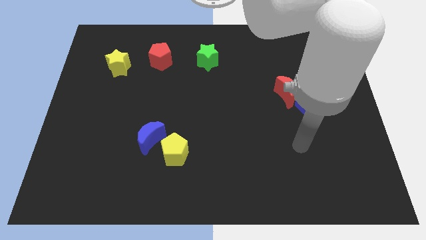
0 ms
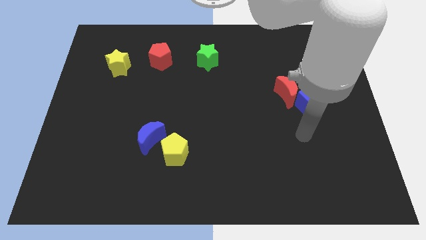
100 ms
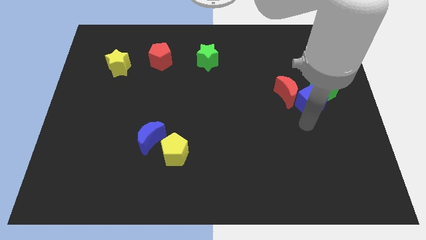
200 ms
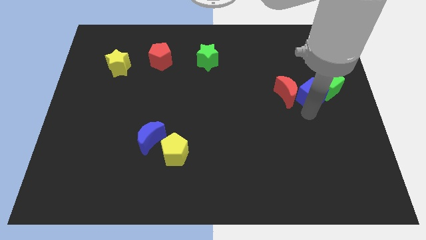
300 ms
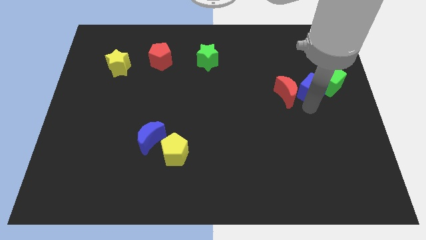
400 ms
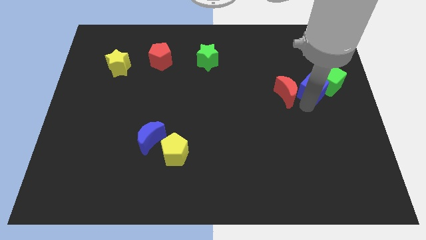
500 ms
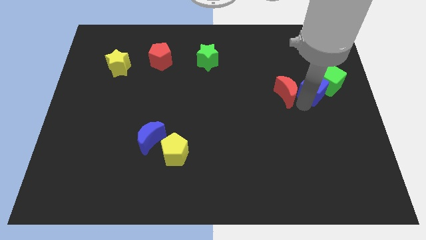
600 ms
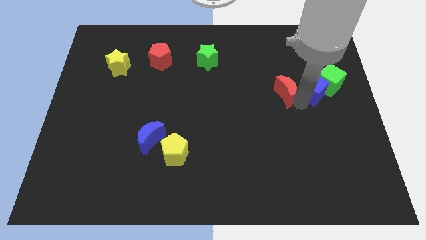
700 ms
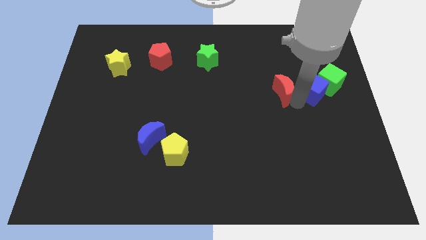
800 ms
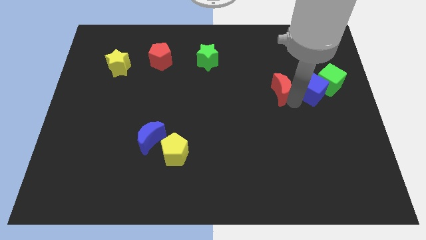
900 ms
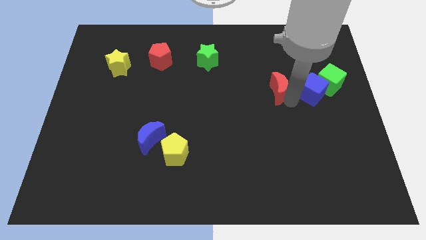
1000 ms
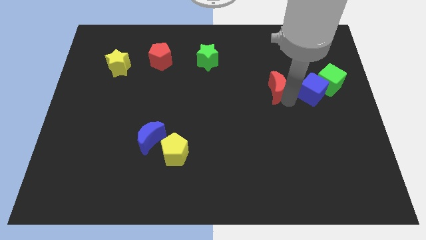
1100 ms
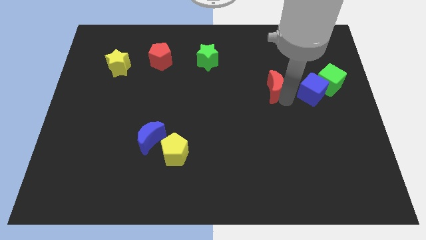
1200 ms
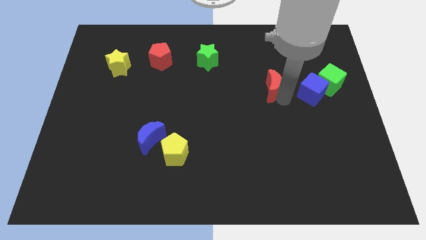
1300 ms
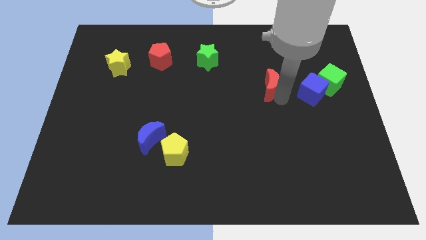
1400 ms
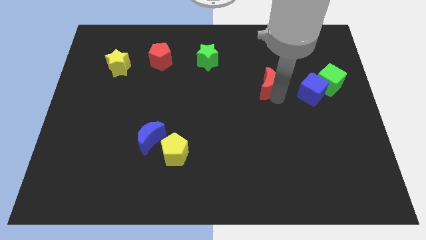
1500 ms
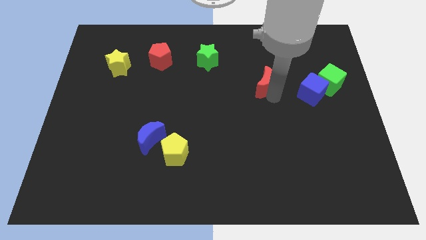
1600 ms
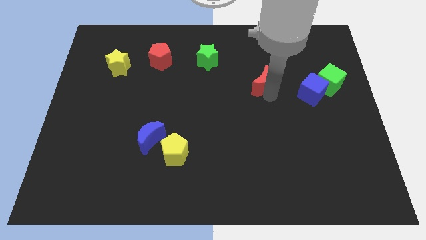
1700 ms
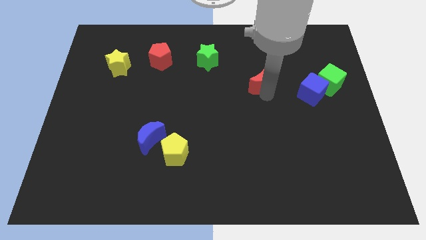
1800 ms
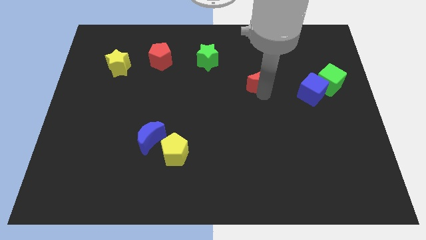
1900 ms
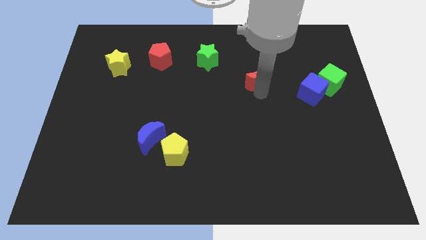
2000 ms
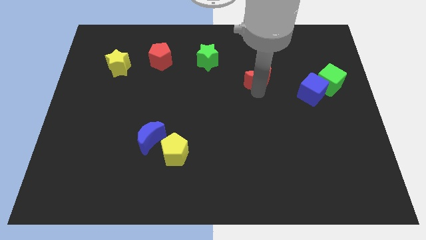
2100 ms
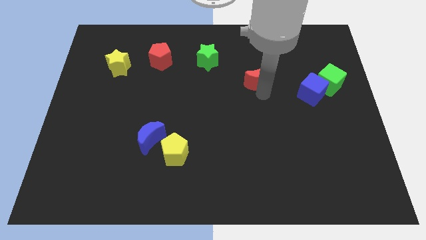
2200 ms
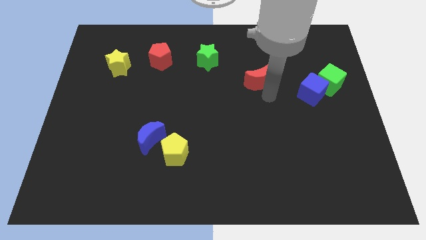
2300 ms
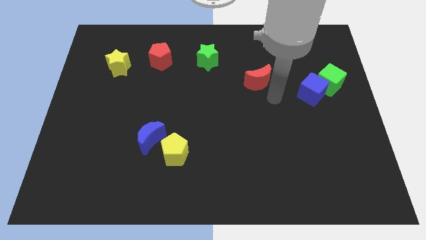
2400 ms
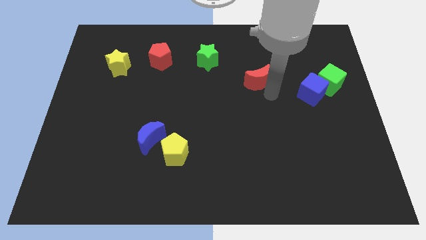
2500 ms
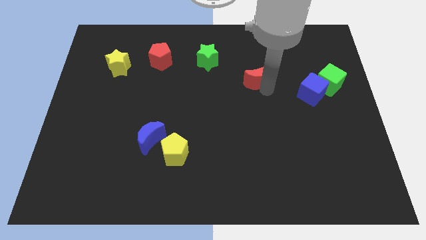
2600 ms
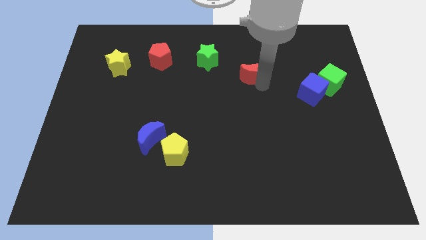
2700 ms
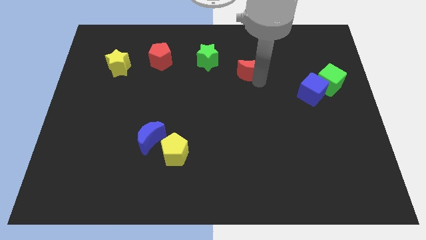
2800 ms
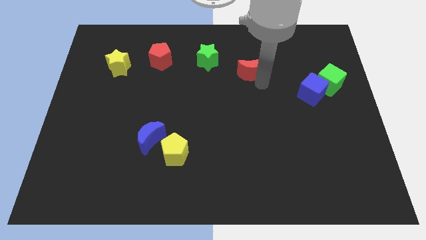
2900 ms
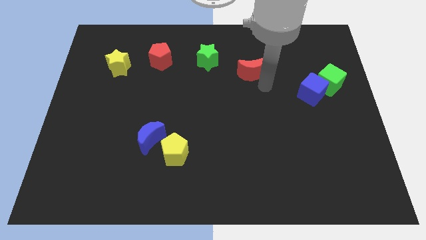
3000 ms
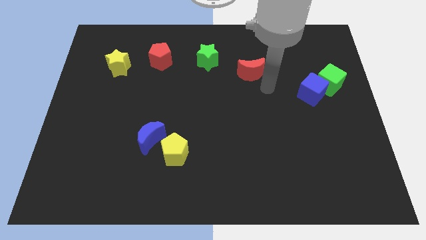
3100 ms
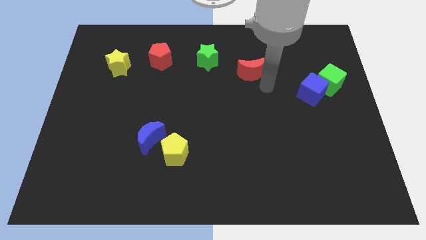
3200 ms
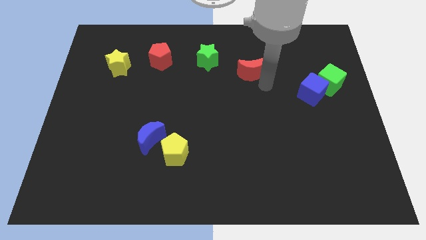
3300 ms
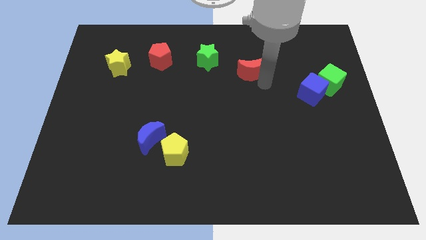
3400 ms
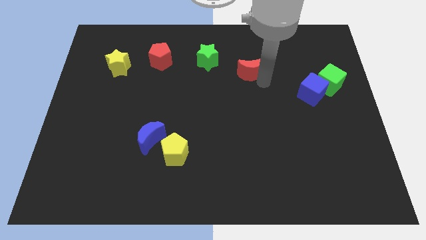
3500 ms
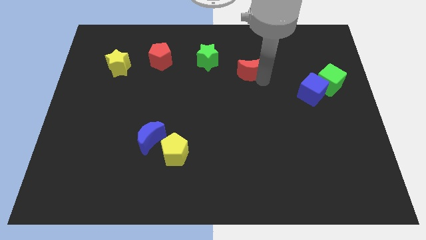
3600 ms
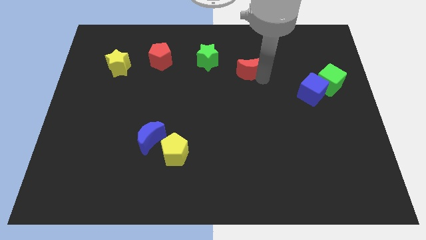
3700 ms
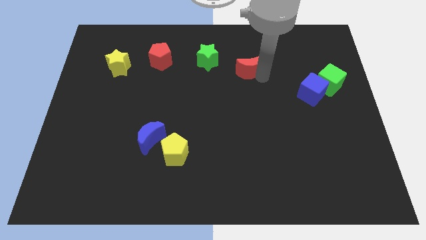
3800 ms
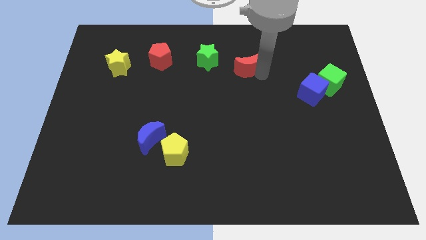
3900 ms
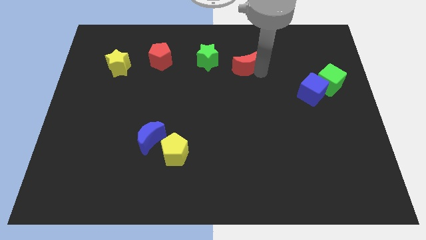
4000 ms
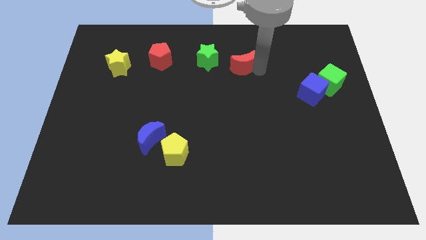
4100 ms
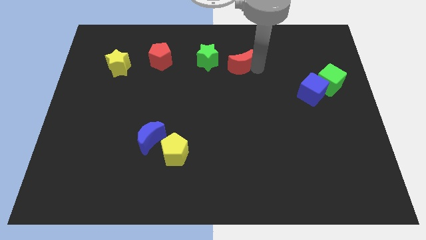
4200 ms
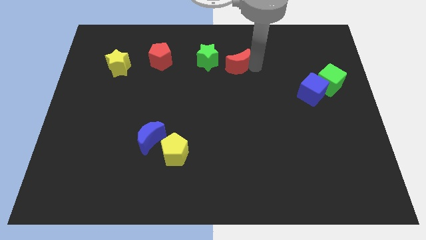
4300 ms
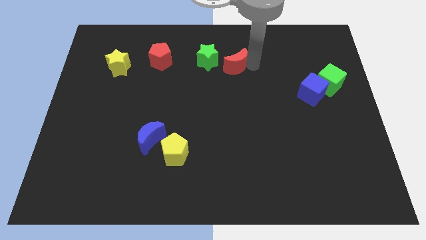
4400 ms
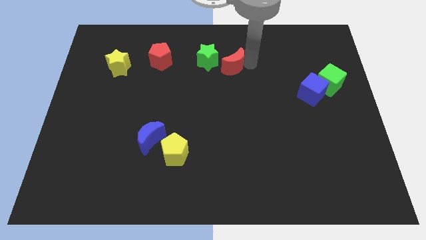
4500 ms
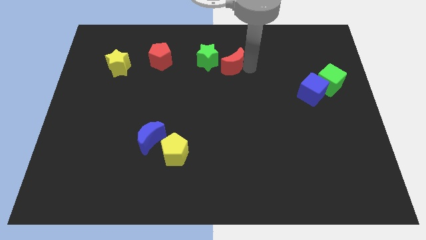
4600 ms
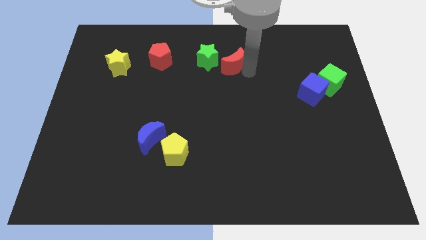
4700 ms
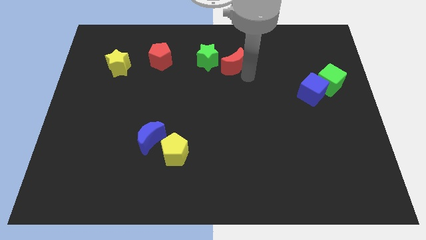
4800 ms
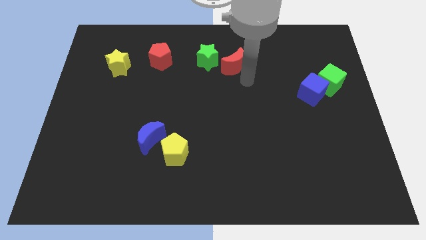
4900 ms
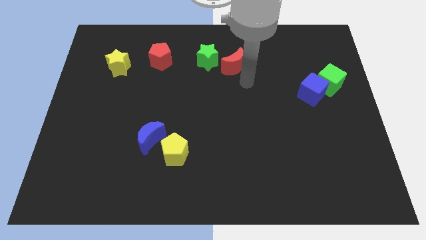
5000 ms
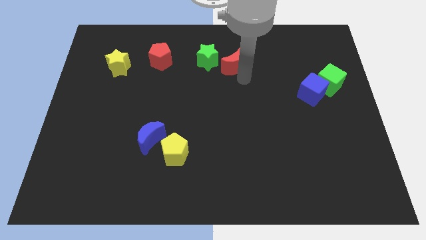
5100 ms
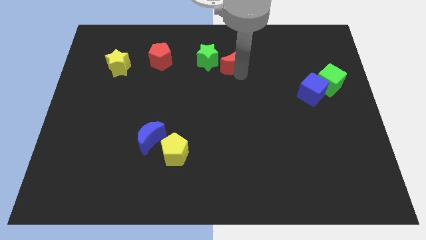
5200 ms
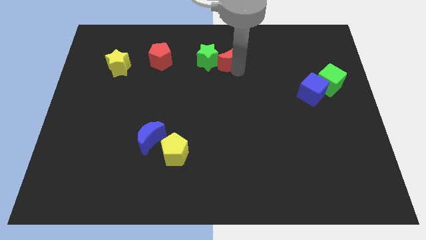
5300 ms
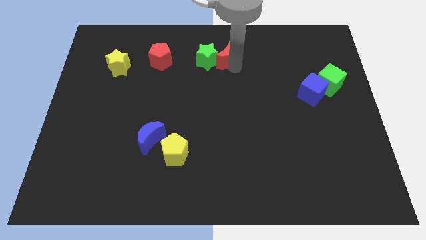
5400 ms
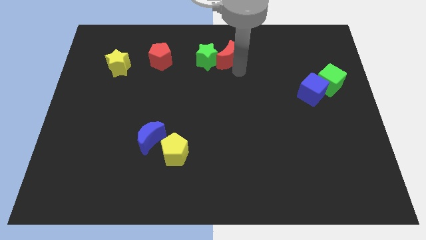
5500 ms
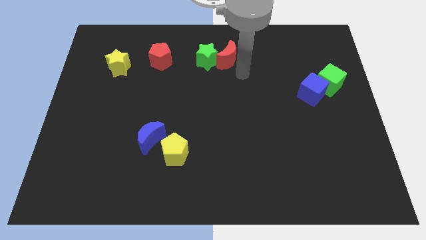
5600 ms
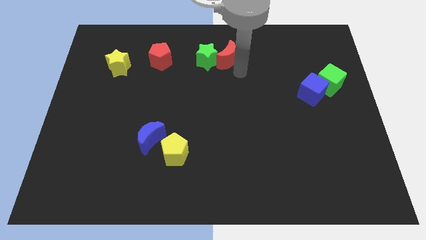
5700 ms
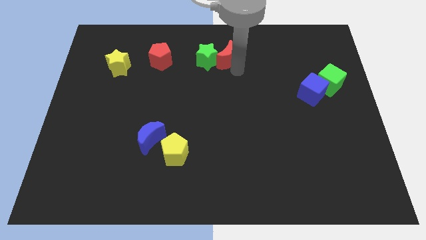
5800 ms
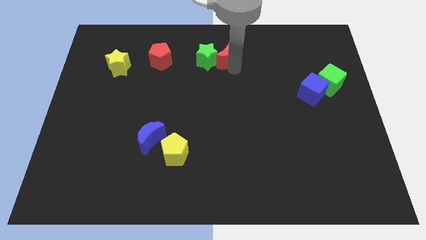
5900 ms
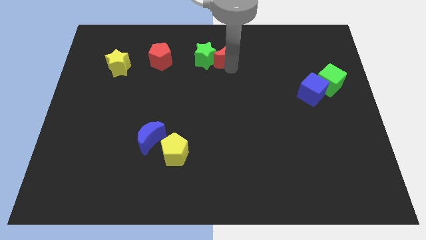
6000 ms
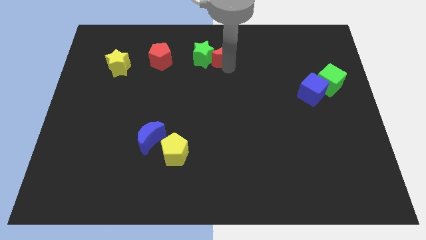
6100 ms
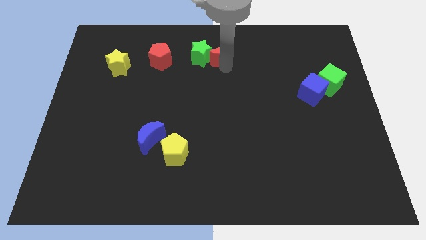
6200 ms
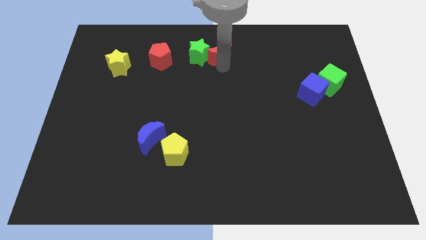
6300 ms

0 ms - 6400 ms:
put the red moon to the towards your base
